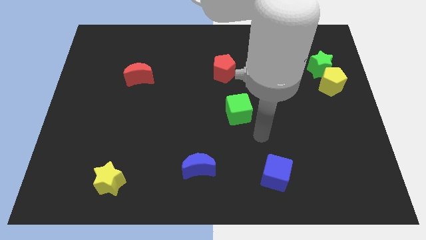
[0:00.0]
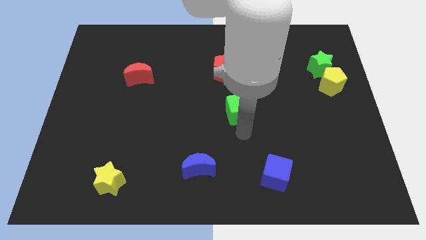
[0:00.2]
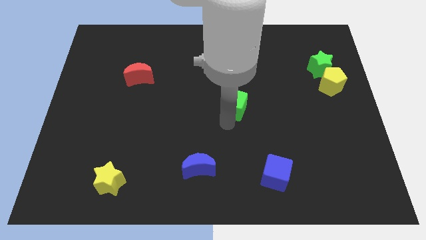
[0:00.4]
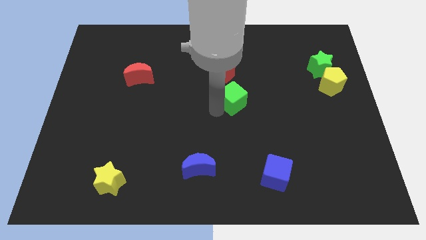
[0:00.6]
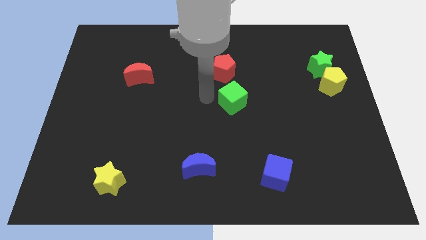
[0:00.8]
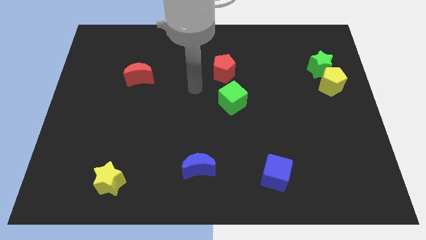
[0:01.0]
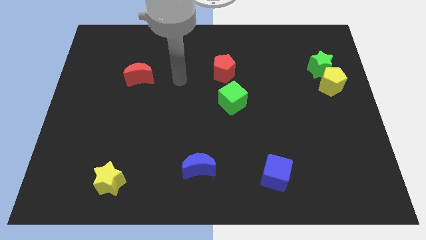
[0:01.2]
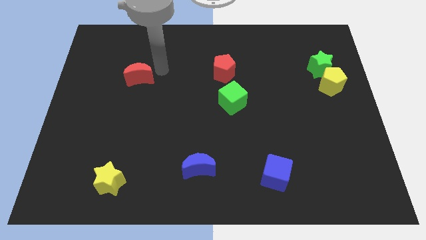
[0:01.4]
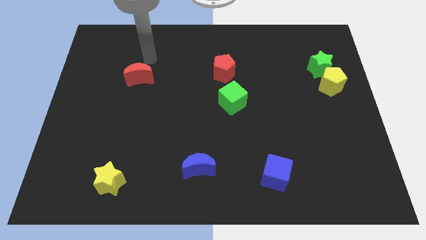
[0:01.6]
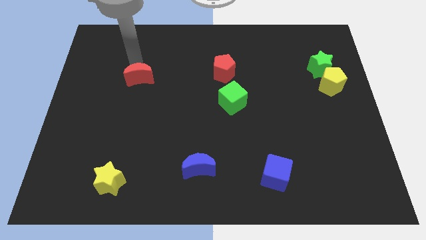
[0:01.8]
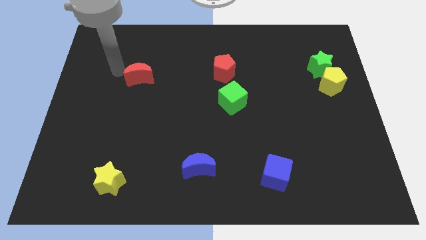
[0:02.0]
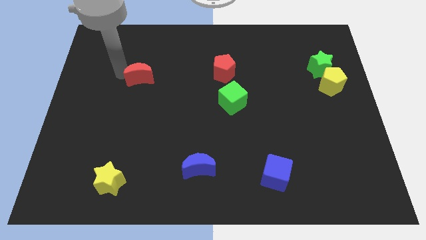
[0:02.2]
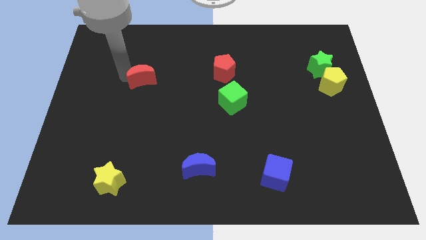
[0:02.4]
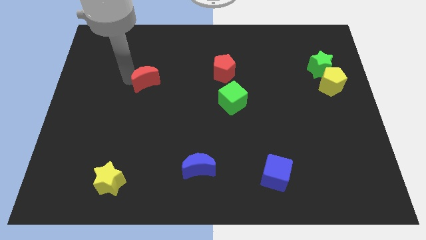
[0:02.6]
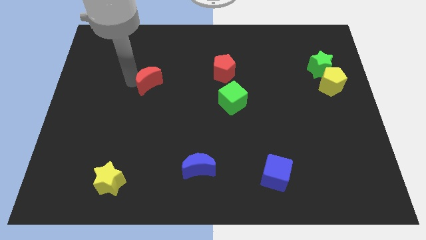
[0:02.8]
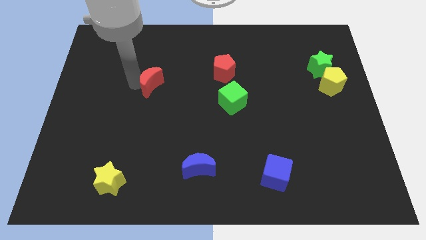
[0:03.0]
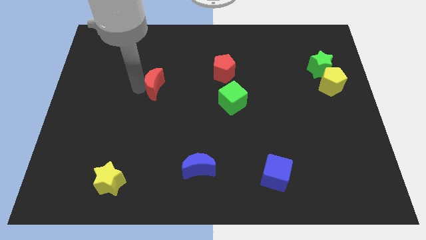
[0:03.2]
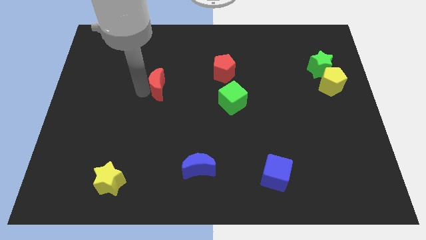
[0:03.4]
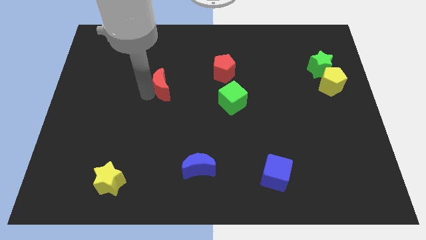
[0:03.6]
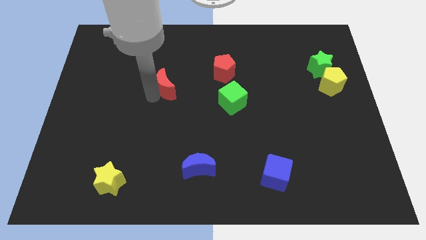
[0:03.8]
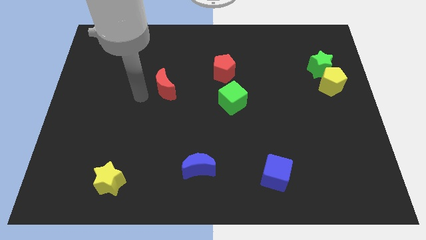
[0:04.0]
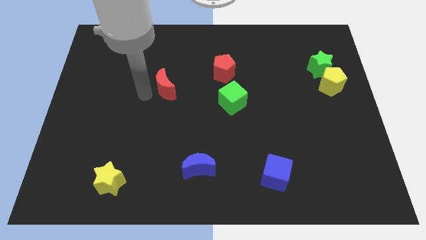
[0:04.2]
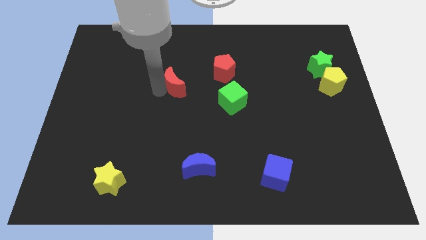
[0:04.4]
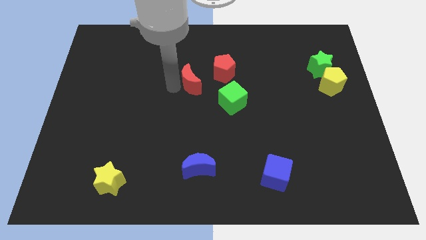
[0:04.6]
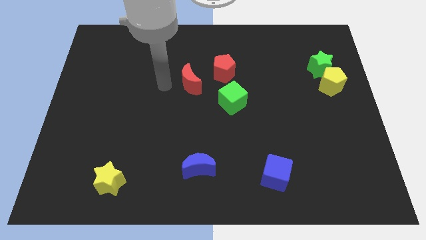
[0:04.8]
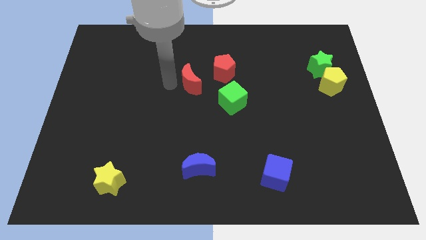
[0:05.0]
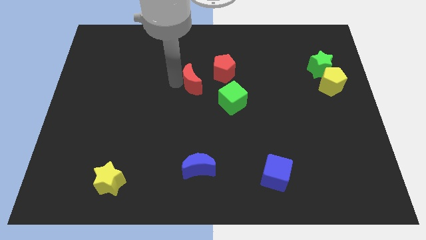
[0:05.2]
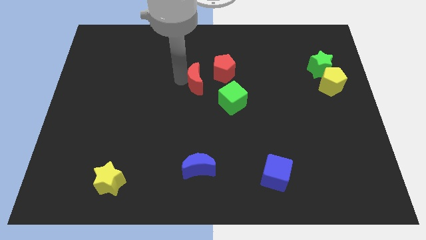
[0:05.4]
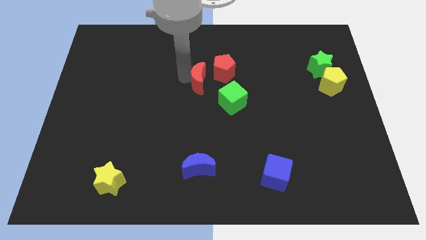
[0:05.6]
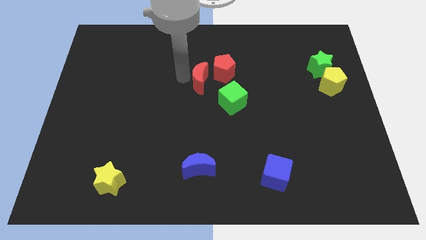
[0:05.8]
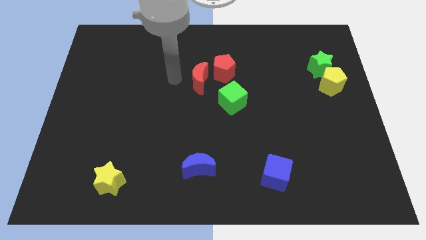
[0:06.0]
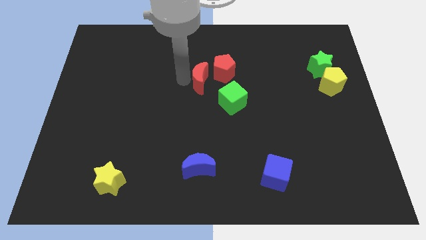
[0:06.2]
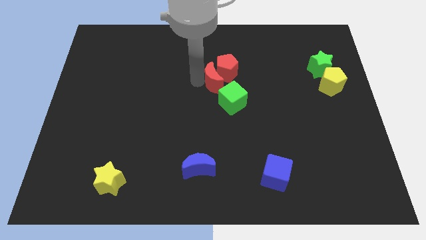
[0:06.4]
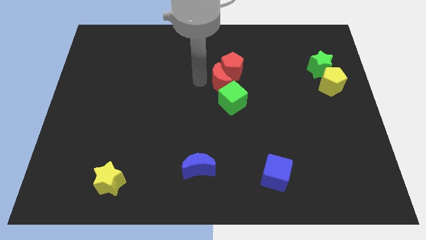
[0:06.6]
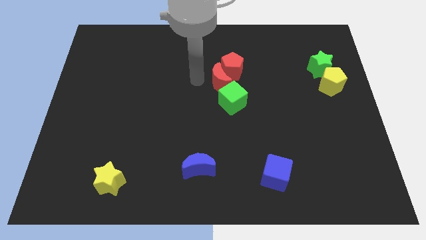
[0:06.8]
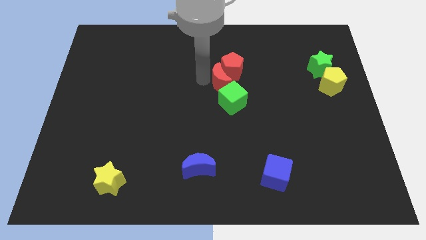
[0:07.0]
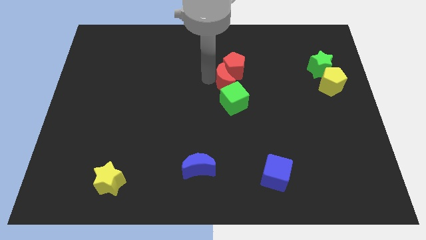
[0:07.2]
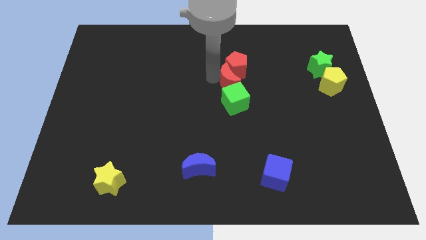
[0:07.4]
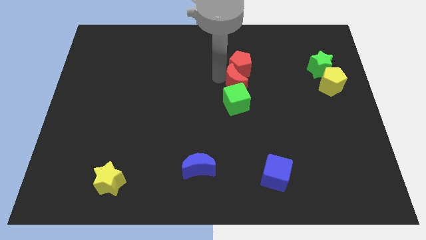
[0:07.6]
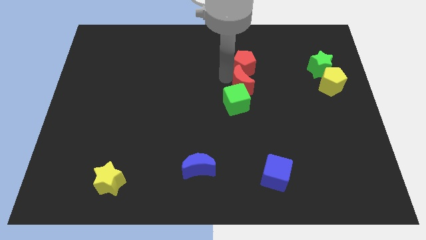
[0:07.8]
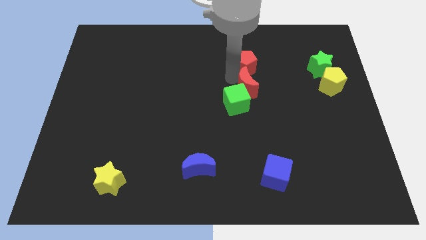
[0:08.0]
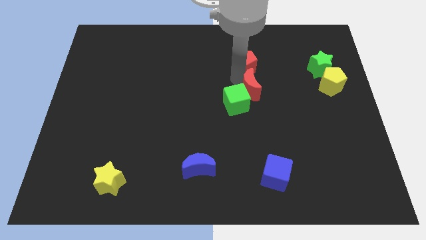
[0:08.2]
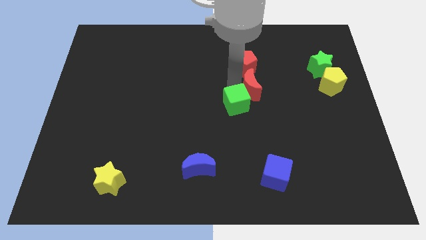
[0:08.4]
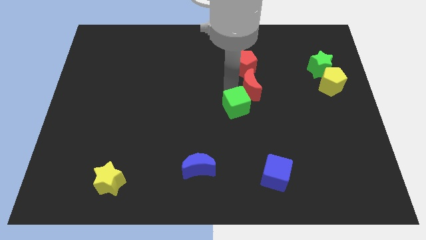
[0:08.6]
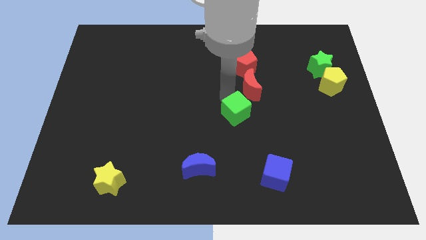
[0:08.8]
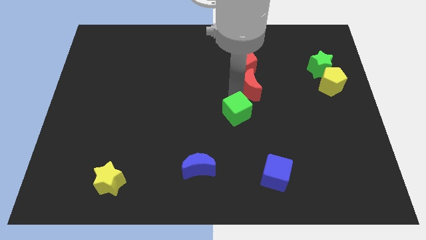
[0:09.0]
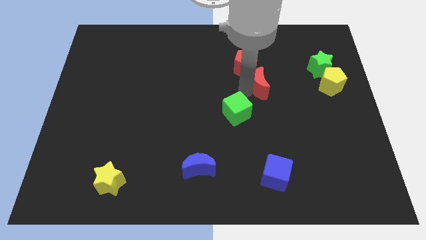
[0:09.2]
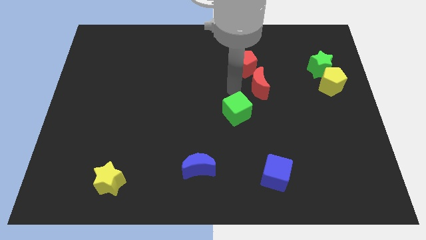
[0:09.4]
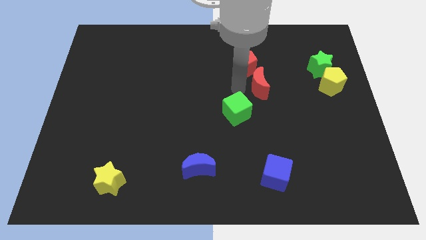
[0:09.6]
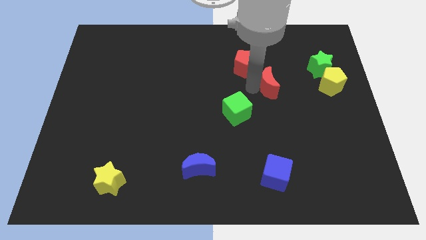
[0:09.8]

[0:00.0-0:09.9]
push the red moon just left of the yellow pentagon

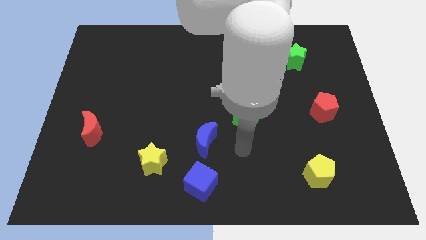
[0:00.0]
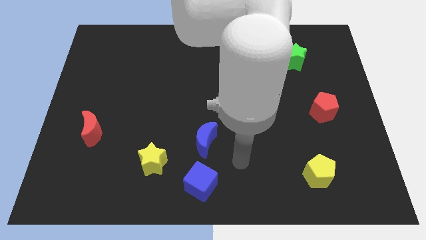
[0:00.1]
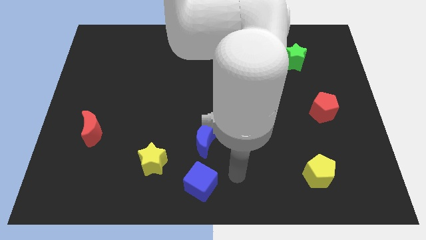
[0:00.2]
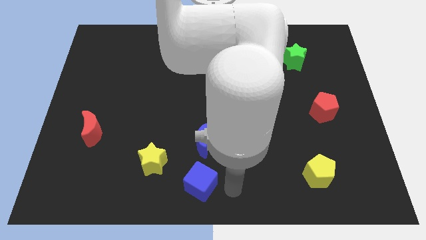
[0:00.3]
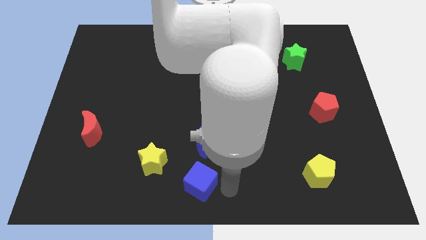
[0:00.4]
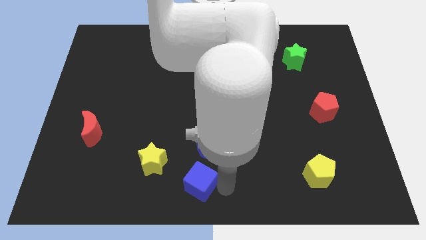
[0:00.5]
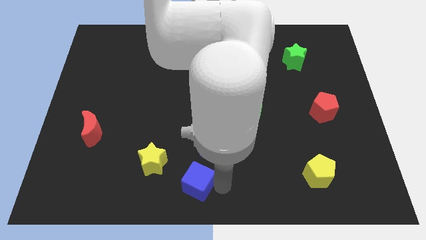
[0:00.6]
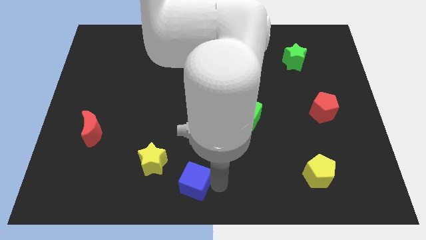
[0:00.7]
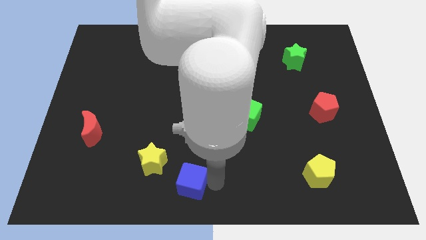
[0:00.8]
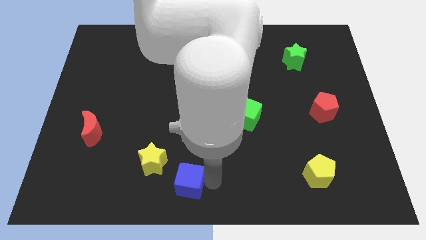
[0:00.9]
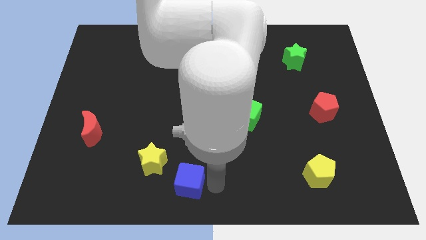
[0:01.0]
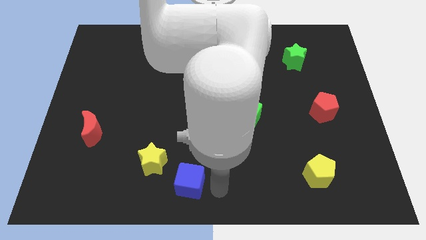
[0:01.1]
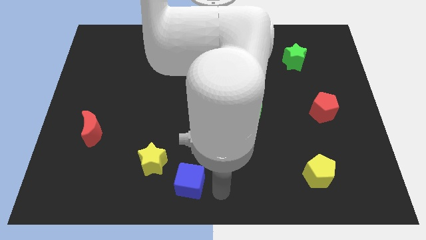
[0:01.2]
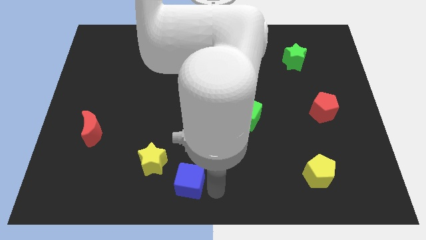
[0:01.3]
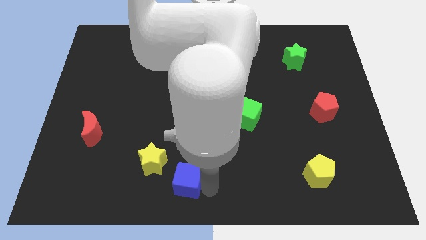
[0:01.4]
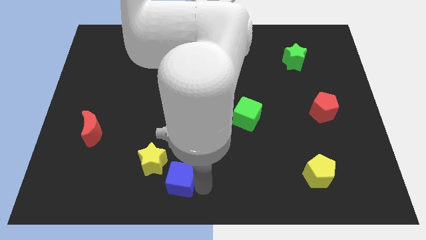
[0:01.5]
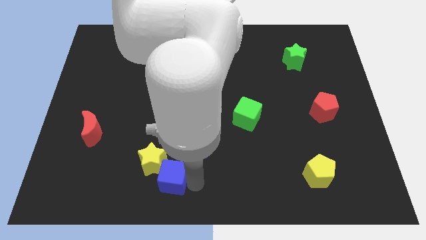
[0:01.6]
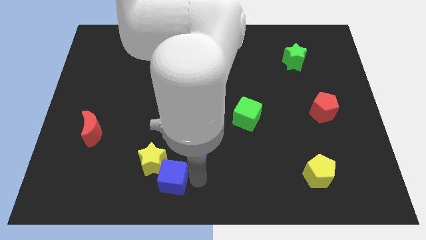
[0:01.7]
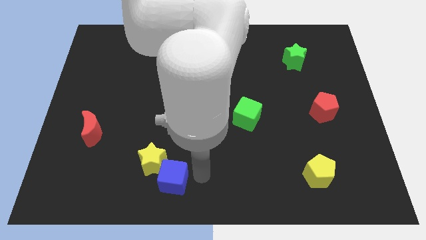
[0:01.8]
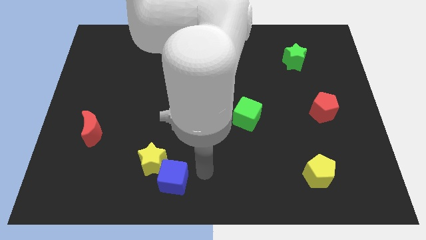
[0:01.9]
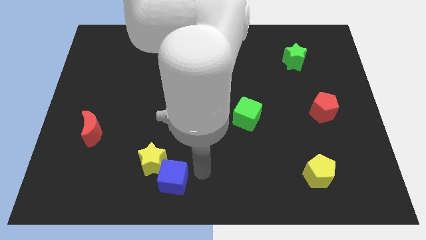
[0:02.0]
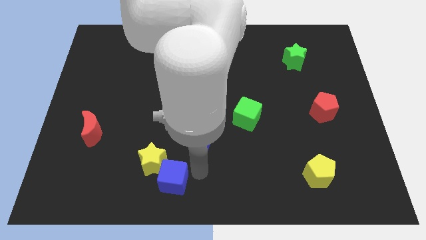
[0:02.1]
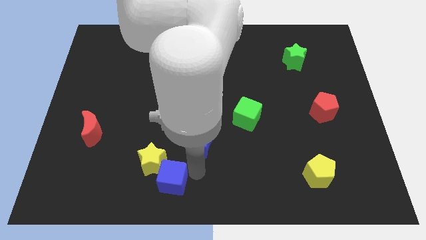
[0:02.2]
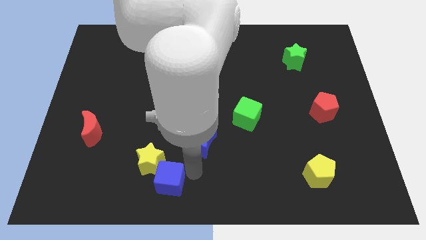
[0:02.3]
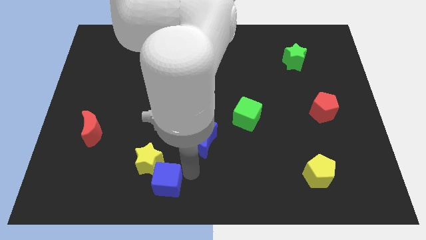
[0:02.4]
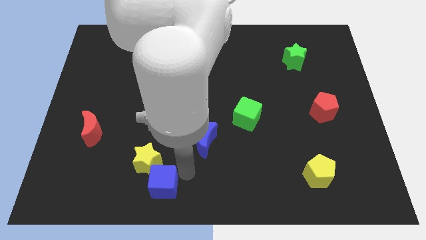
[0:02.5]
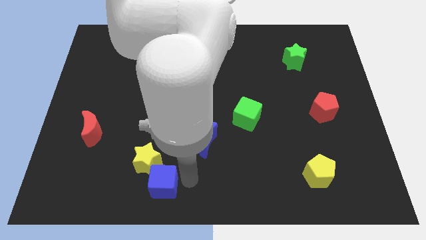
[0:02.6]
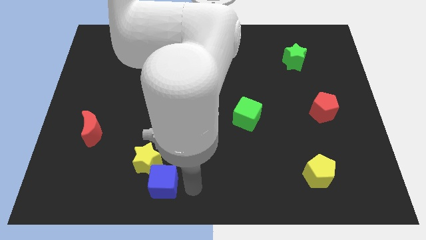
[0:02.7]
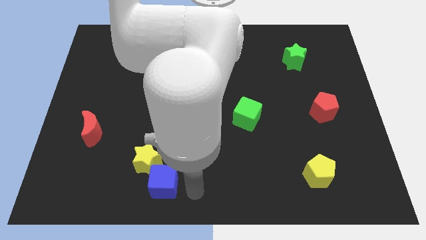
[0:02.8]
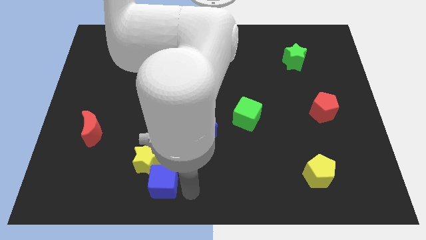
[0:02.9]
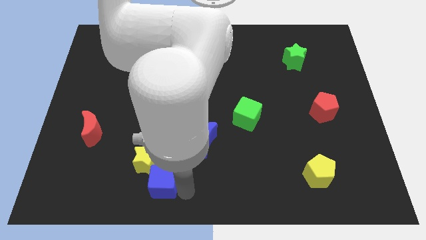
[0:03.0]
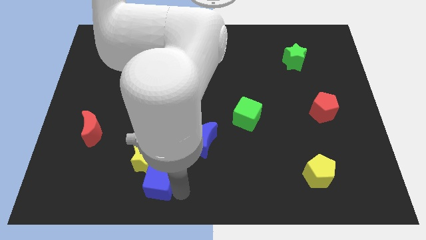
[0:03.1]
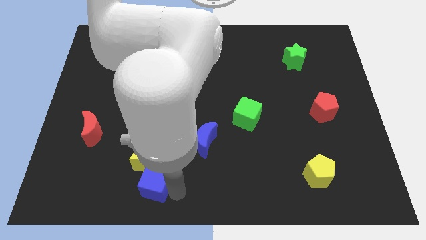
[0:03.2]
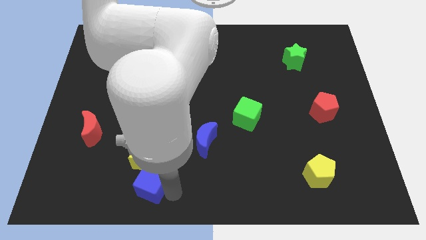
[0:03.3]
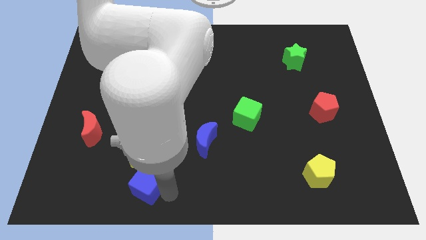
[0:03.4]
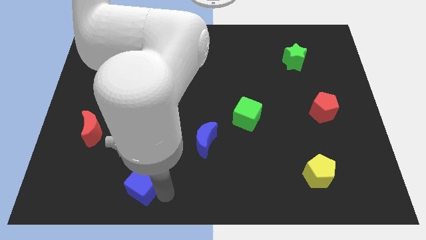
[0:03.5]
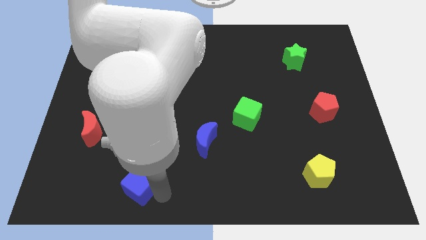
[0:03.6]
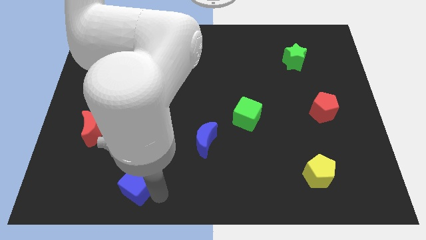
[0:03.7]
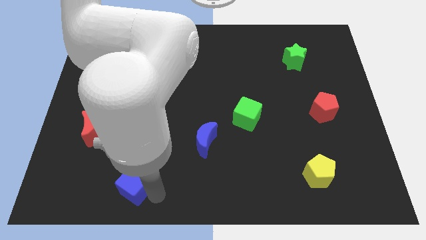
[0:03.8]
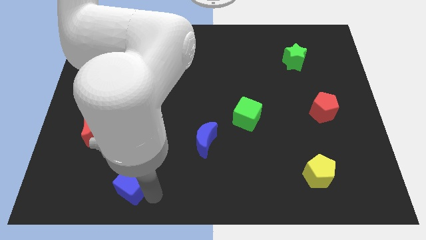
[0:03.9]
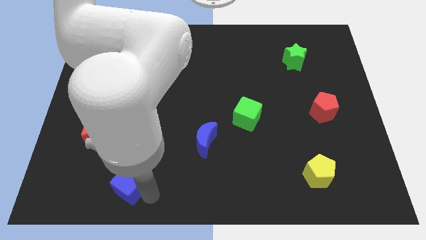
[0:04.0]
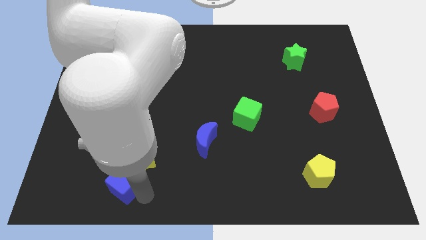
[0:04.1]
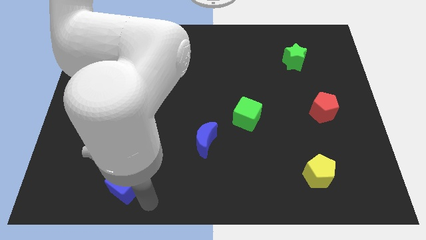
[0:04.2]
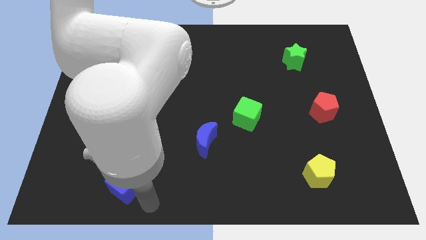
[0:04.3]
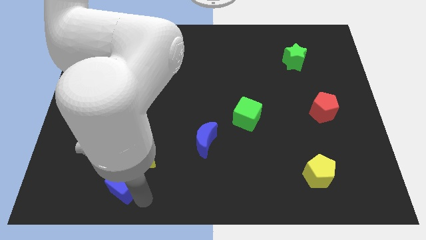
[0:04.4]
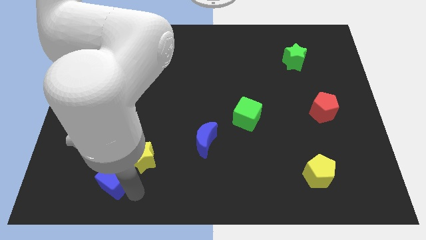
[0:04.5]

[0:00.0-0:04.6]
slide the blue cube to the left side of the yellow star
